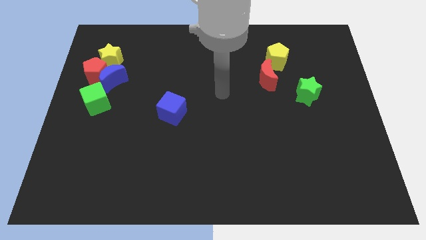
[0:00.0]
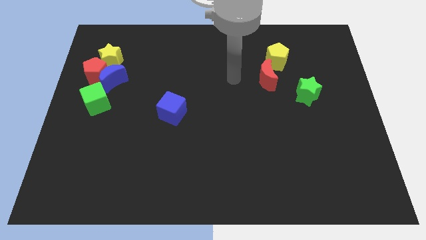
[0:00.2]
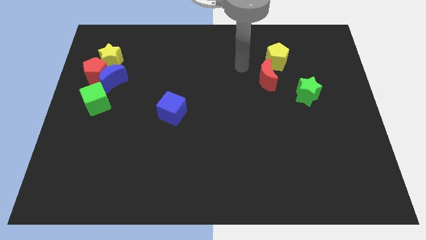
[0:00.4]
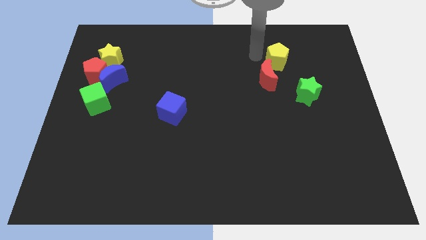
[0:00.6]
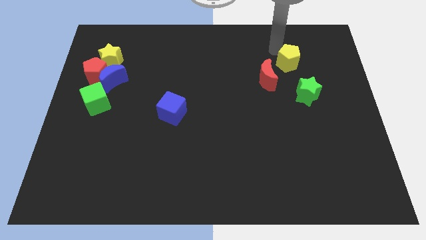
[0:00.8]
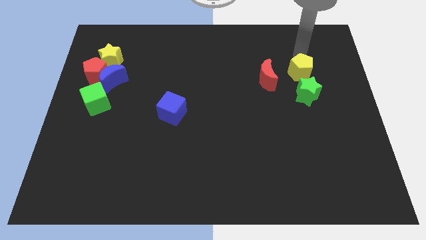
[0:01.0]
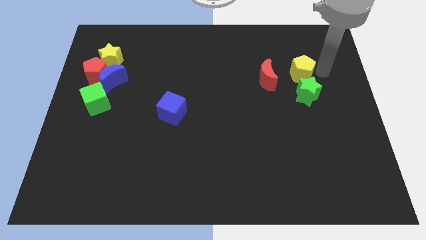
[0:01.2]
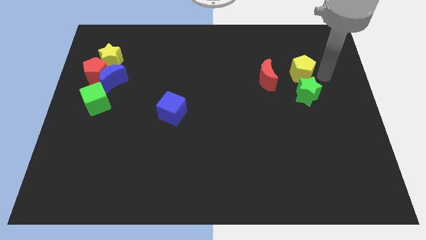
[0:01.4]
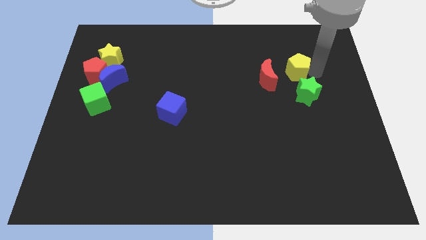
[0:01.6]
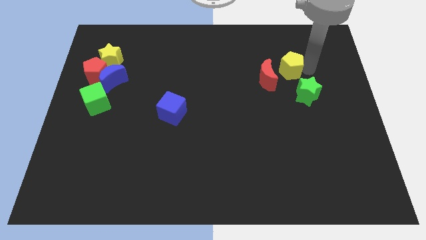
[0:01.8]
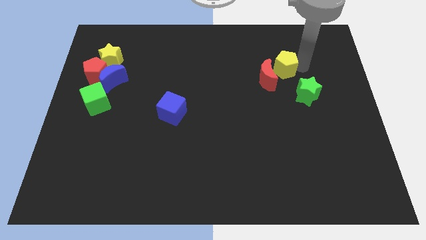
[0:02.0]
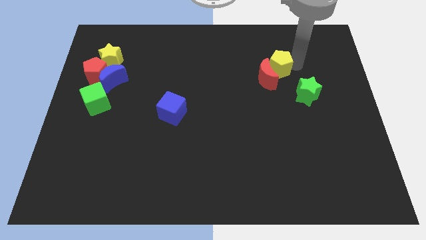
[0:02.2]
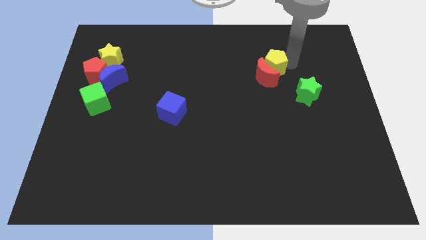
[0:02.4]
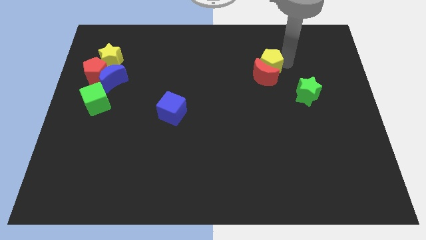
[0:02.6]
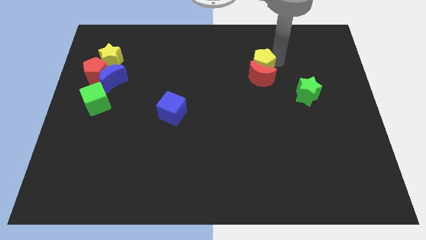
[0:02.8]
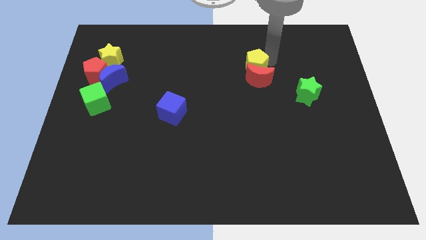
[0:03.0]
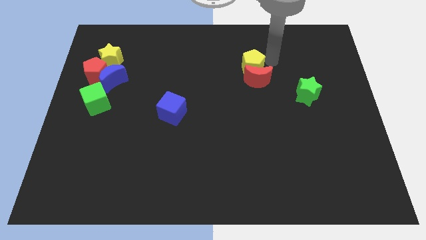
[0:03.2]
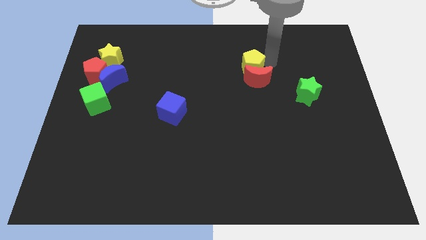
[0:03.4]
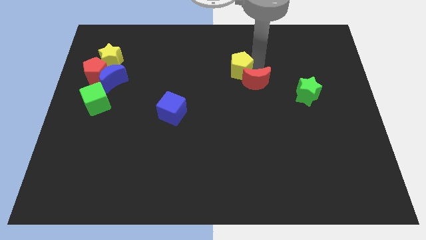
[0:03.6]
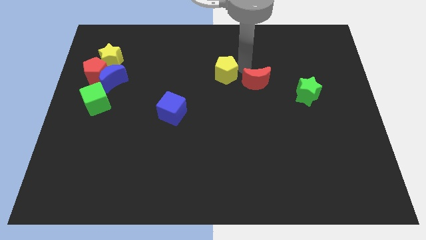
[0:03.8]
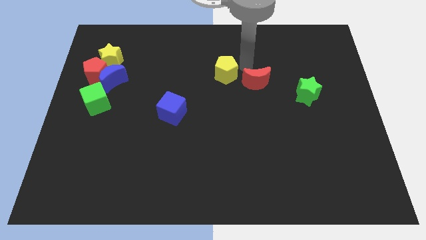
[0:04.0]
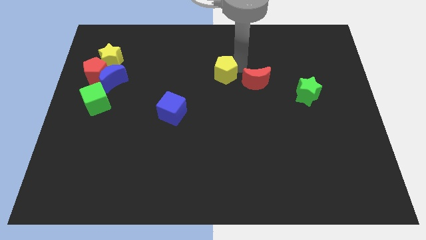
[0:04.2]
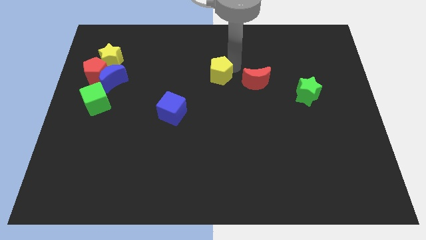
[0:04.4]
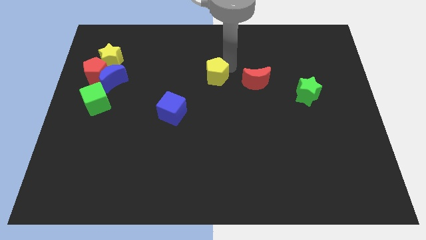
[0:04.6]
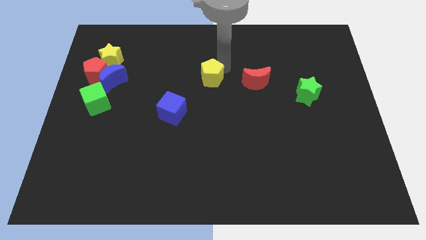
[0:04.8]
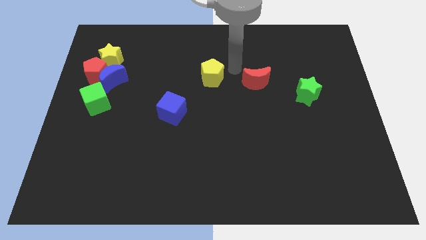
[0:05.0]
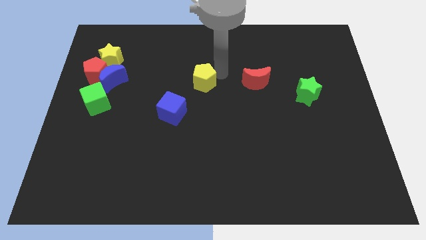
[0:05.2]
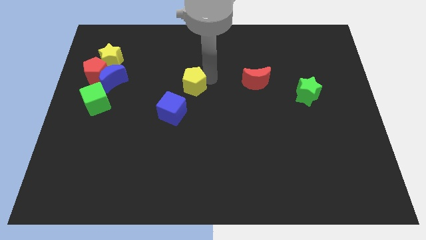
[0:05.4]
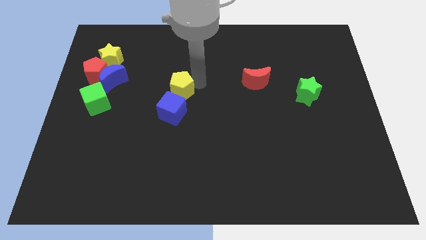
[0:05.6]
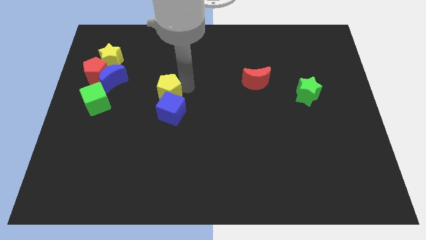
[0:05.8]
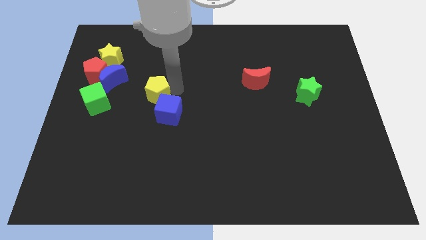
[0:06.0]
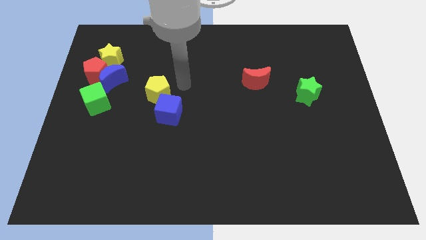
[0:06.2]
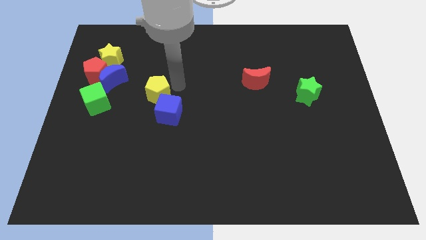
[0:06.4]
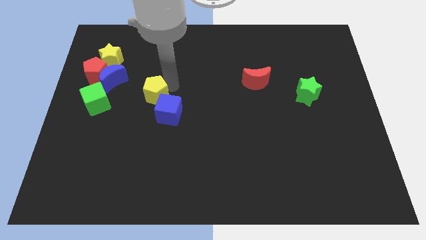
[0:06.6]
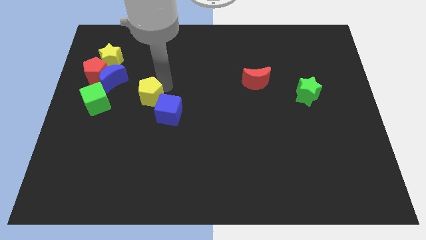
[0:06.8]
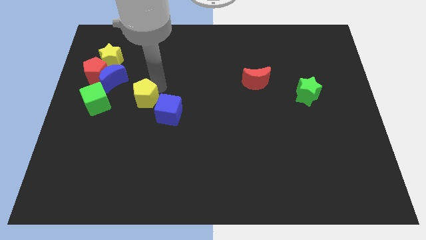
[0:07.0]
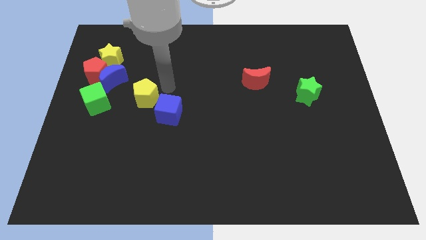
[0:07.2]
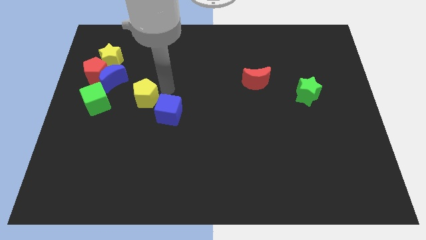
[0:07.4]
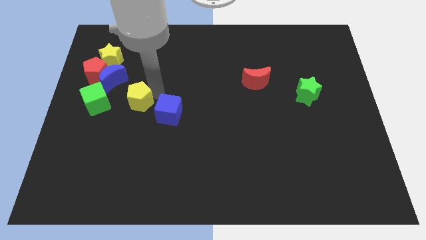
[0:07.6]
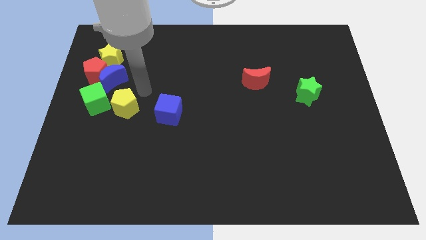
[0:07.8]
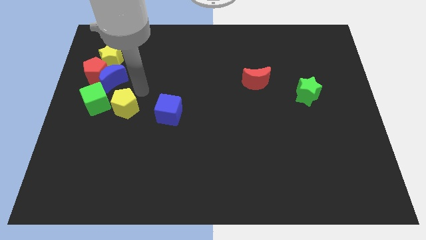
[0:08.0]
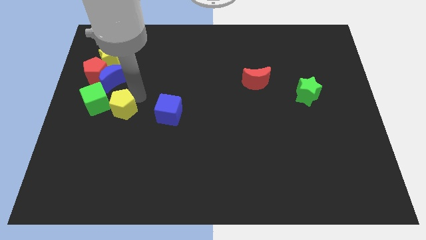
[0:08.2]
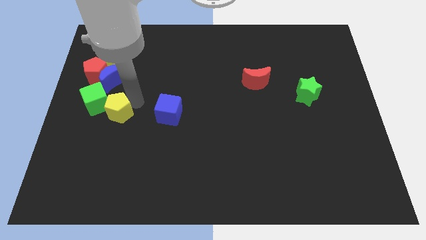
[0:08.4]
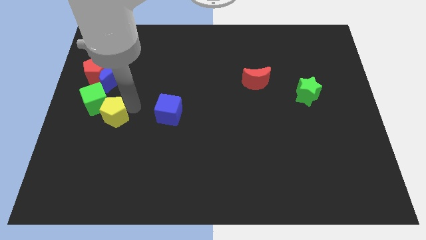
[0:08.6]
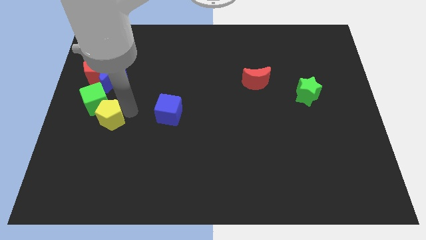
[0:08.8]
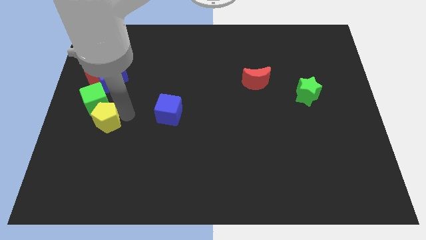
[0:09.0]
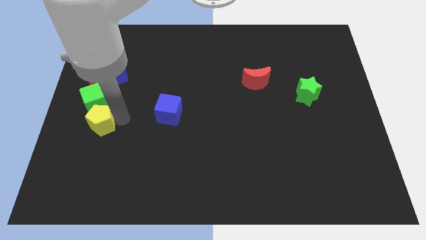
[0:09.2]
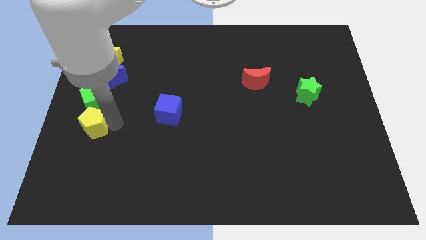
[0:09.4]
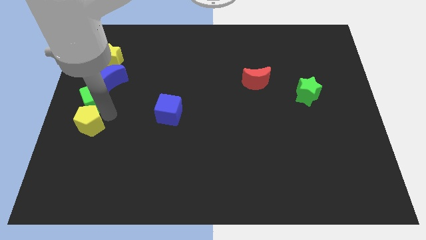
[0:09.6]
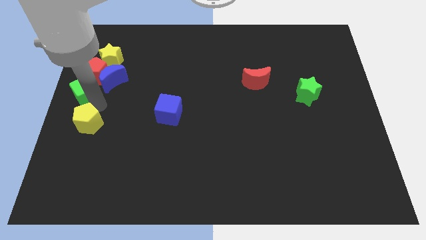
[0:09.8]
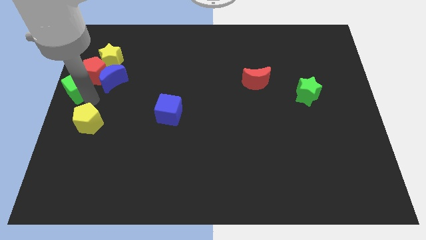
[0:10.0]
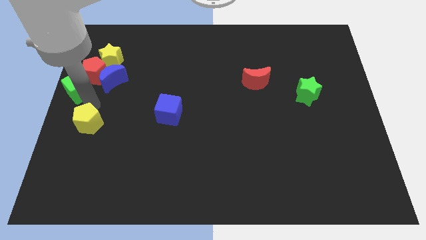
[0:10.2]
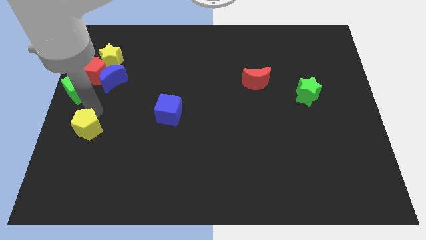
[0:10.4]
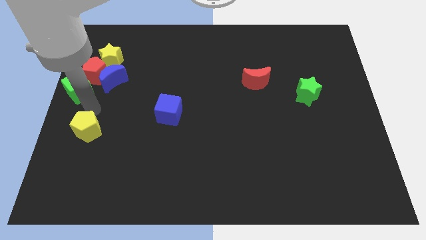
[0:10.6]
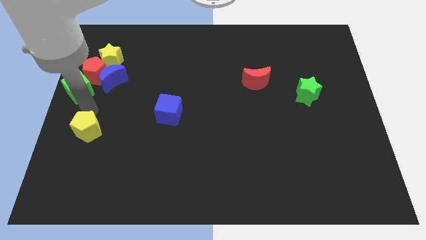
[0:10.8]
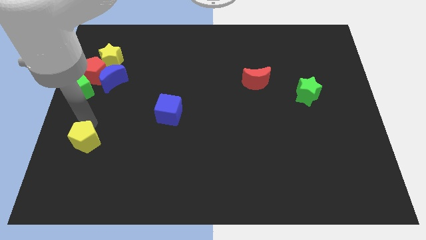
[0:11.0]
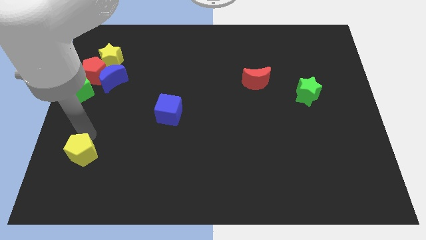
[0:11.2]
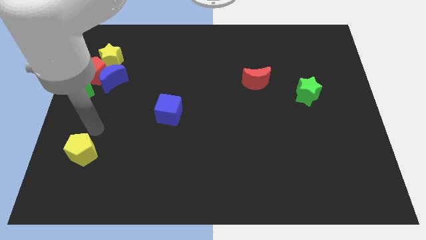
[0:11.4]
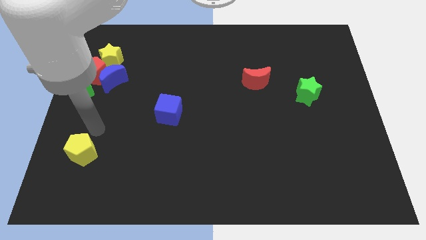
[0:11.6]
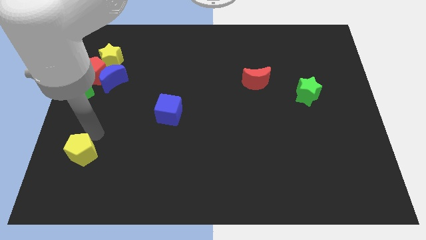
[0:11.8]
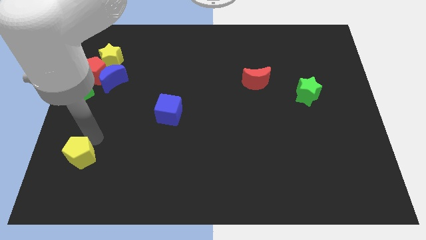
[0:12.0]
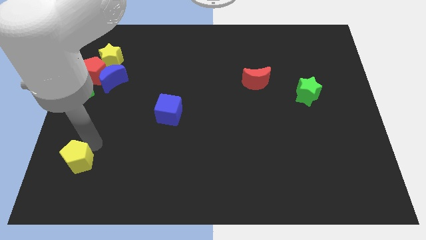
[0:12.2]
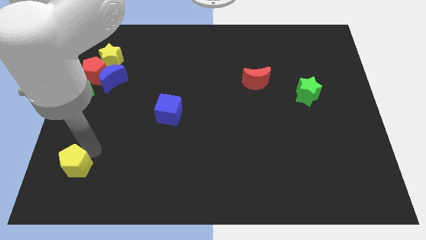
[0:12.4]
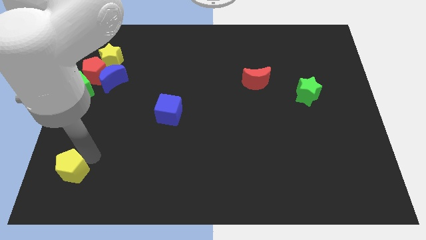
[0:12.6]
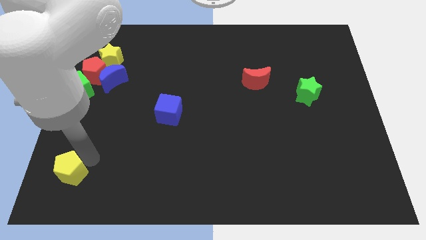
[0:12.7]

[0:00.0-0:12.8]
push the yellow pentagon to the lower left corner

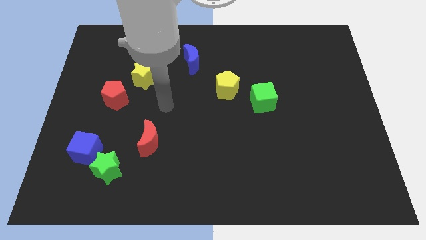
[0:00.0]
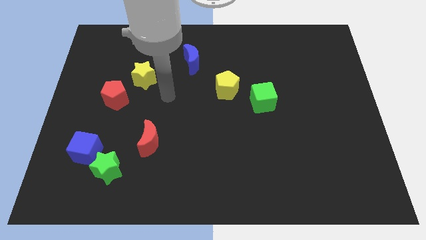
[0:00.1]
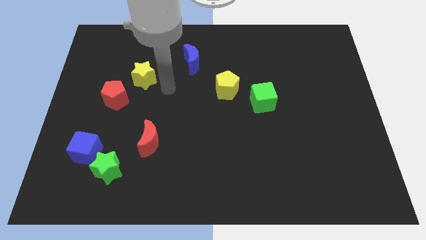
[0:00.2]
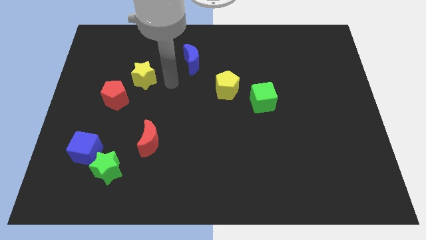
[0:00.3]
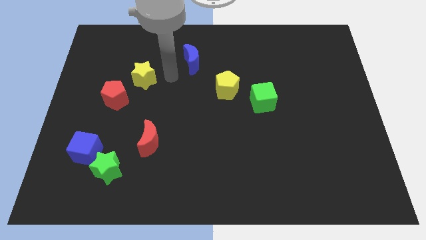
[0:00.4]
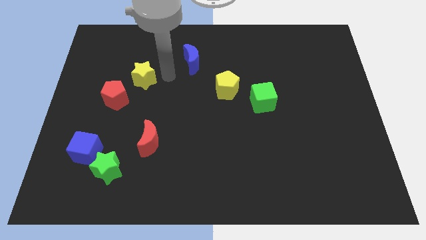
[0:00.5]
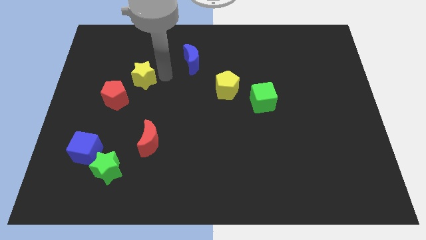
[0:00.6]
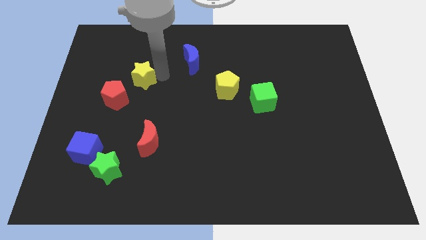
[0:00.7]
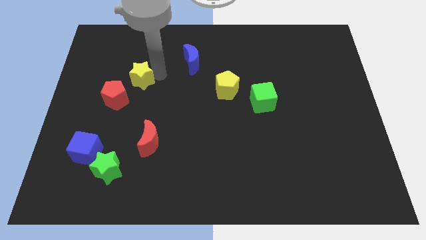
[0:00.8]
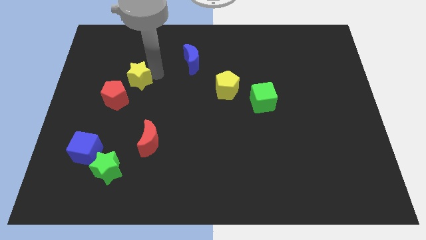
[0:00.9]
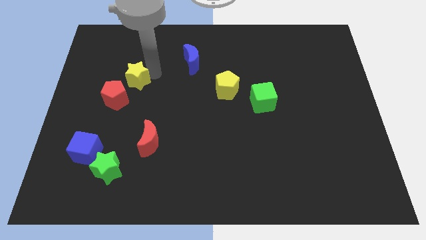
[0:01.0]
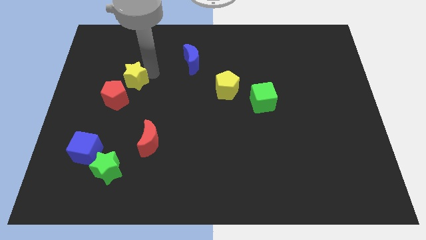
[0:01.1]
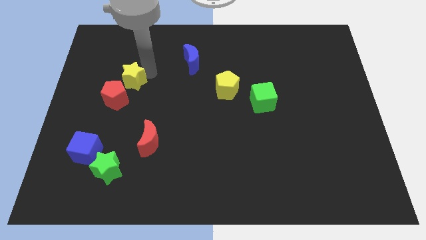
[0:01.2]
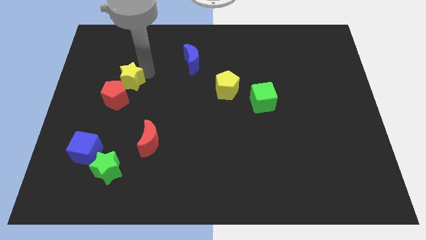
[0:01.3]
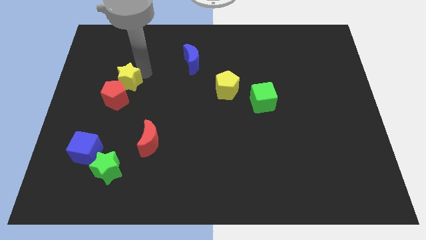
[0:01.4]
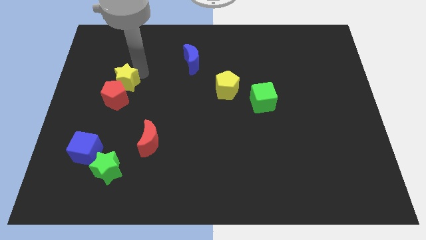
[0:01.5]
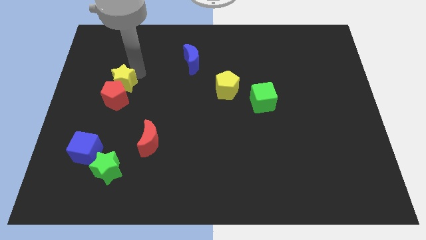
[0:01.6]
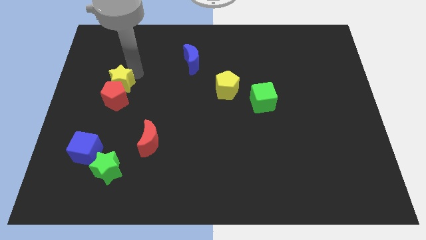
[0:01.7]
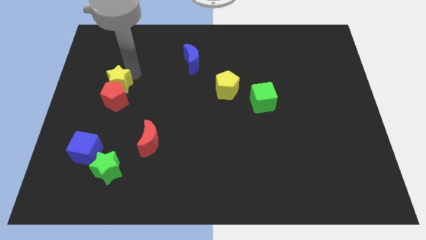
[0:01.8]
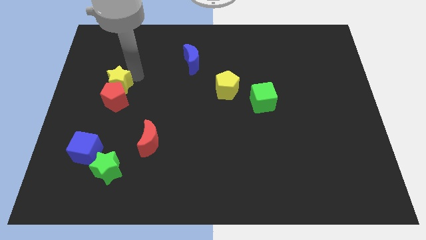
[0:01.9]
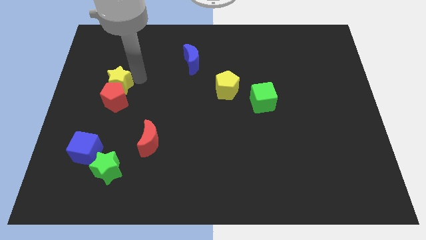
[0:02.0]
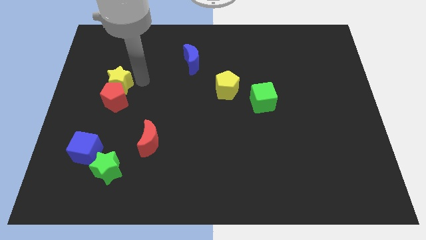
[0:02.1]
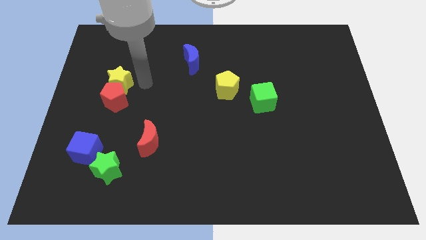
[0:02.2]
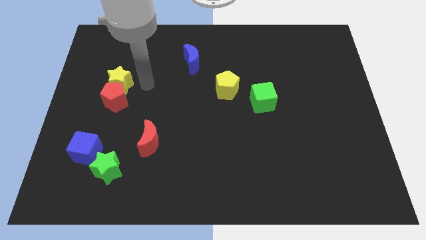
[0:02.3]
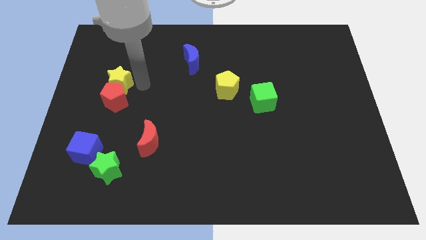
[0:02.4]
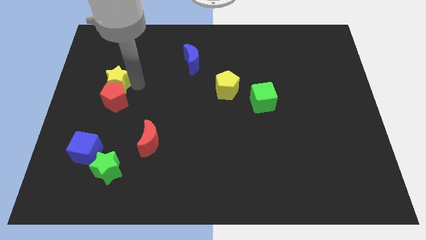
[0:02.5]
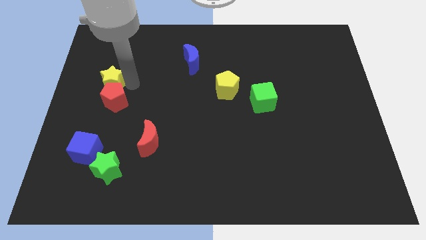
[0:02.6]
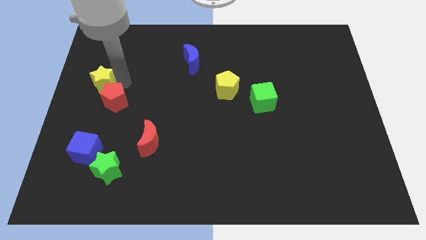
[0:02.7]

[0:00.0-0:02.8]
put the yellow star to the center left
